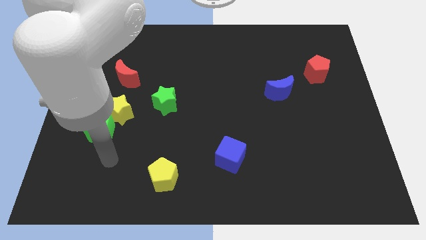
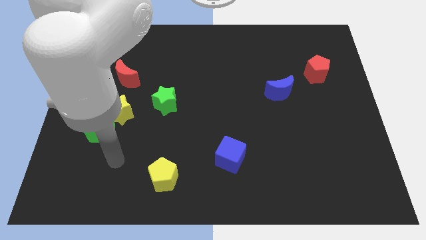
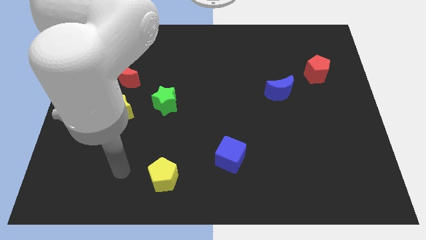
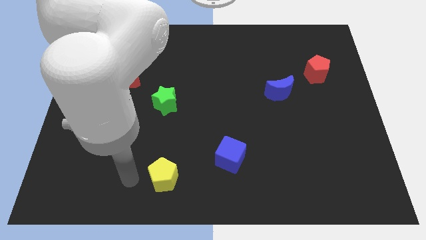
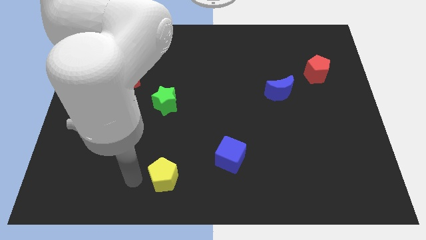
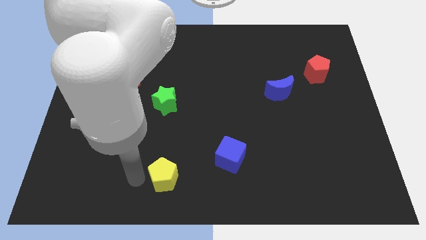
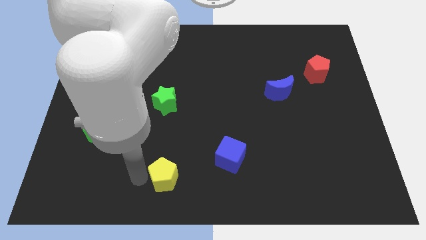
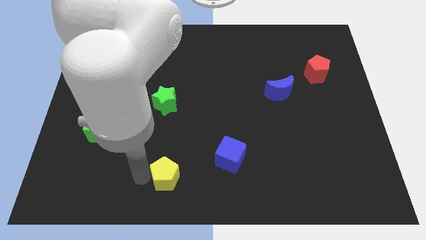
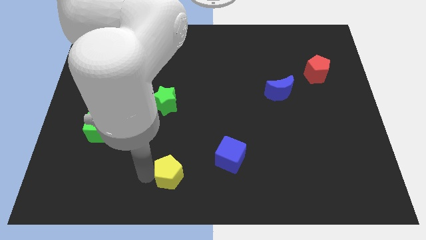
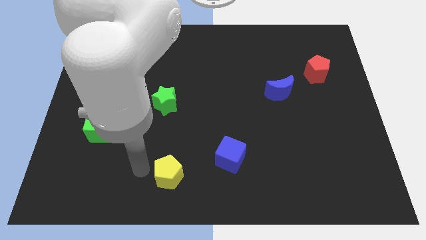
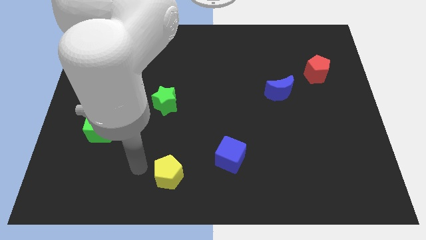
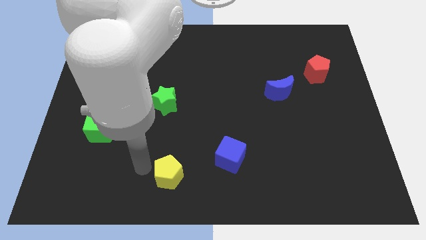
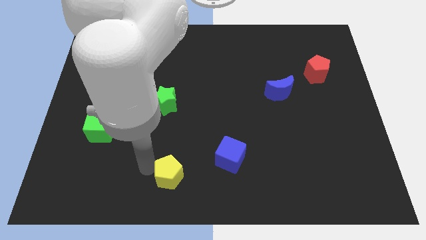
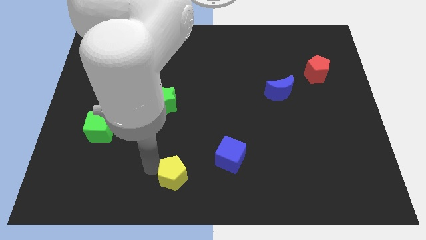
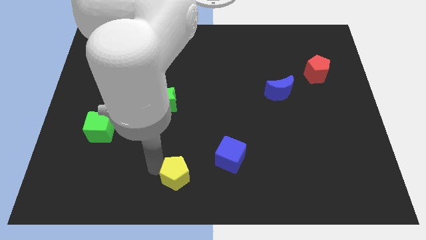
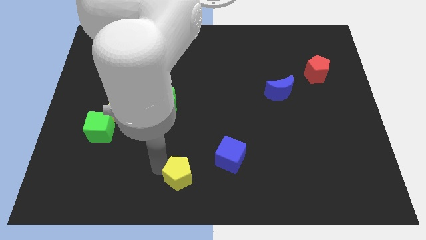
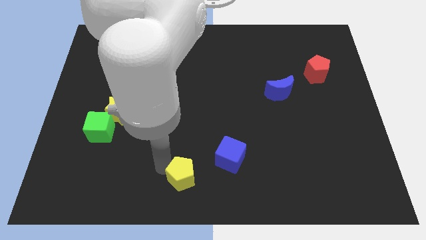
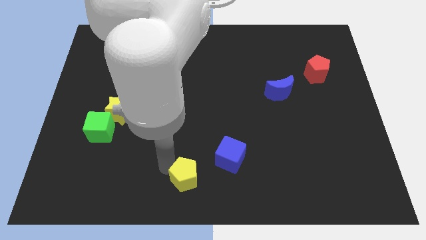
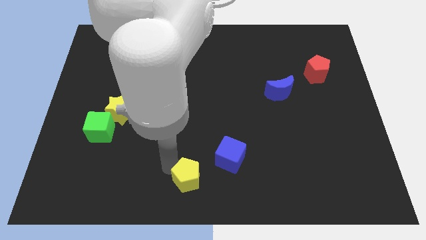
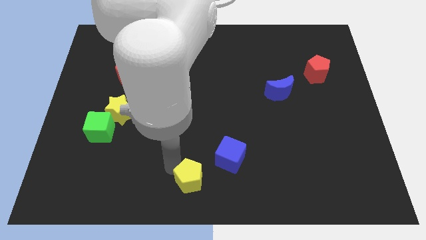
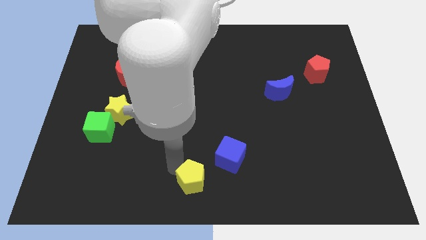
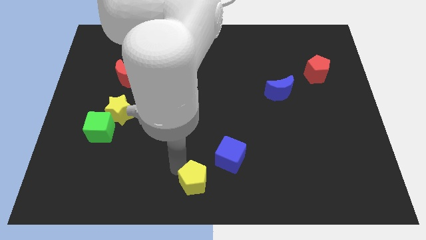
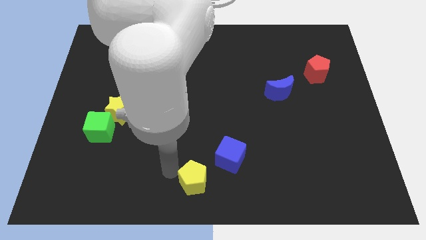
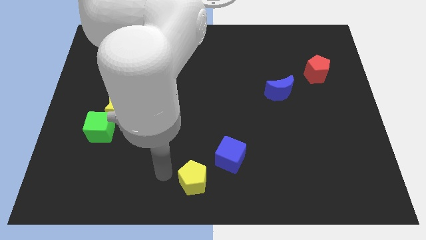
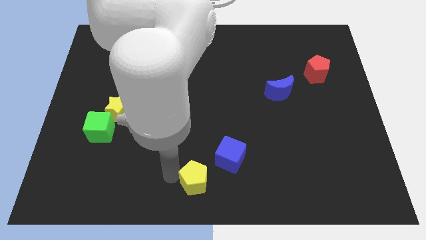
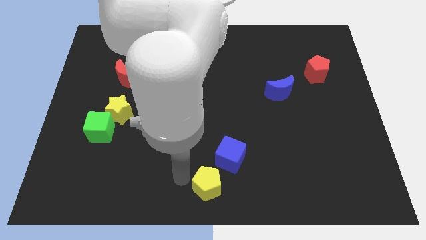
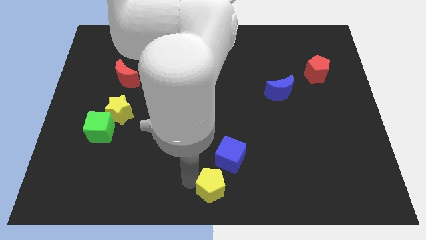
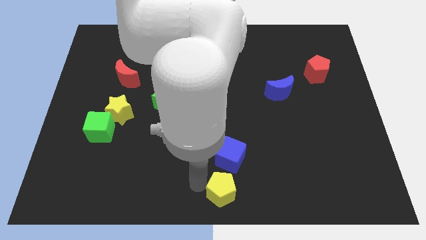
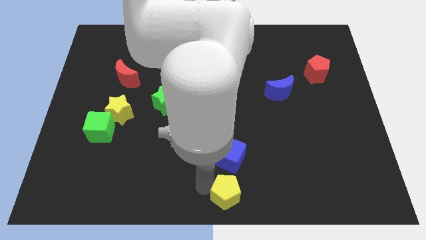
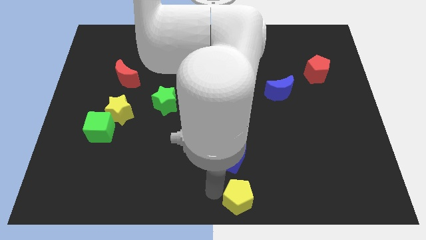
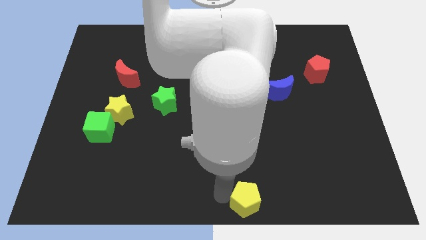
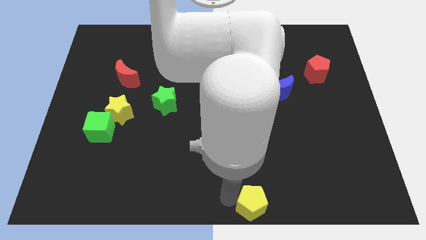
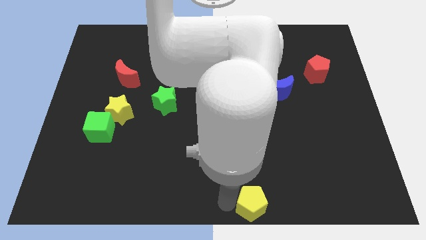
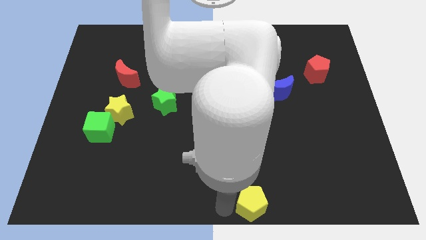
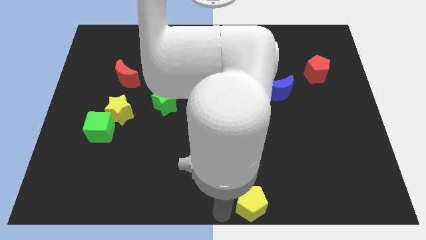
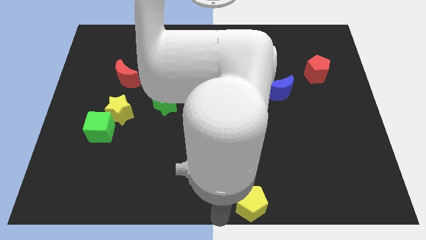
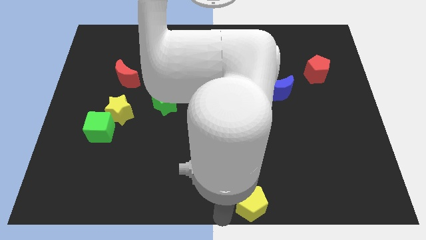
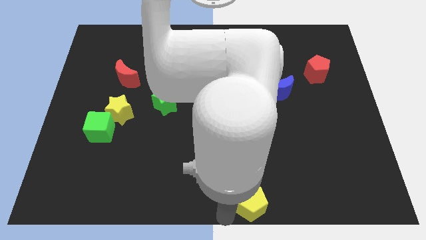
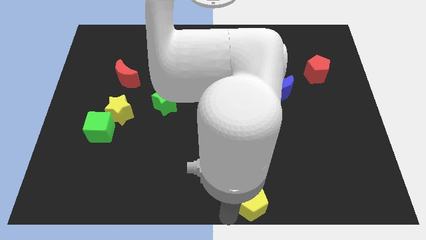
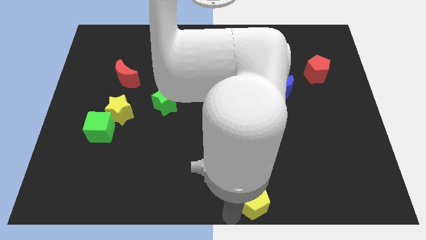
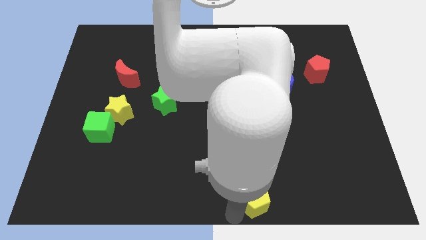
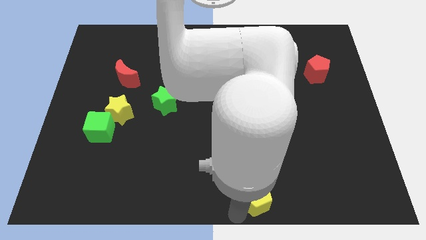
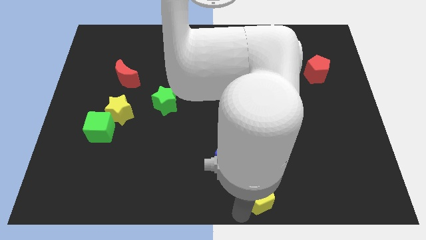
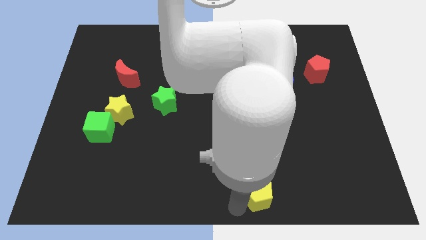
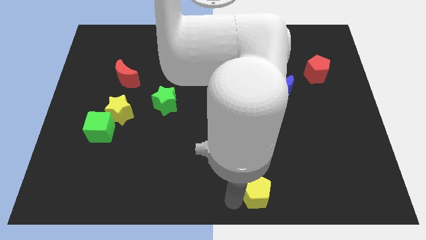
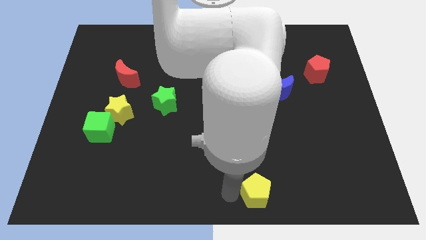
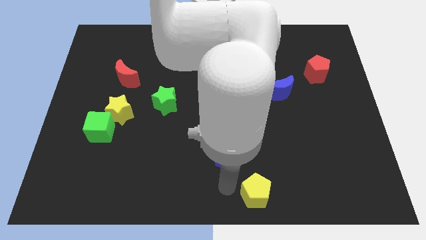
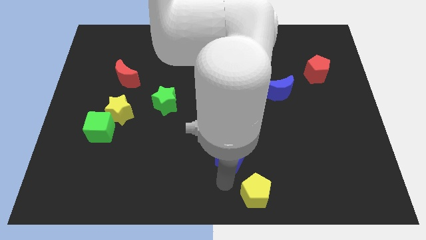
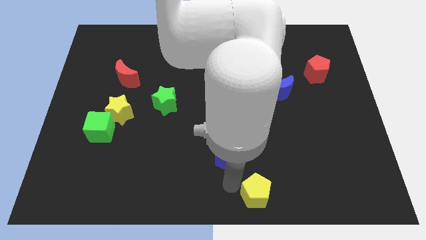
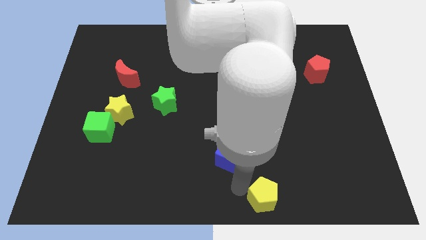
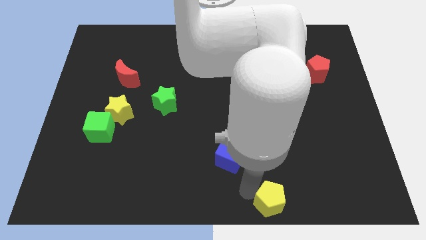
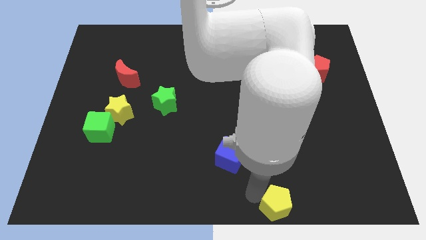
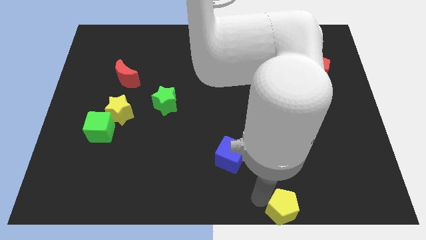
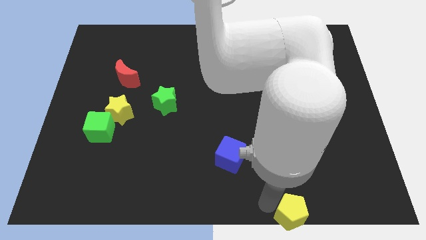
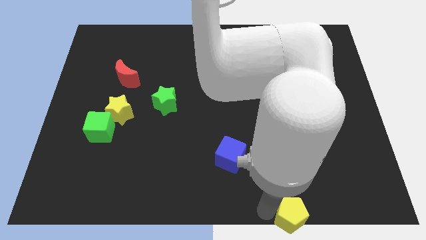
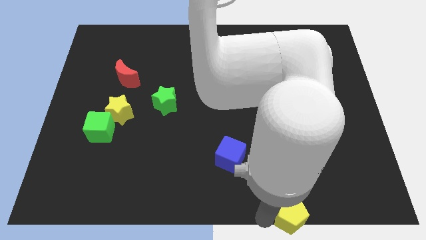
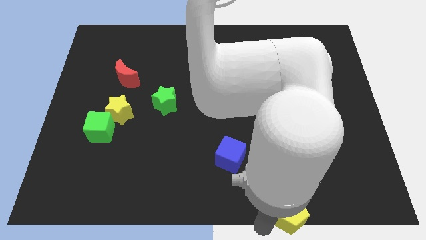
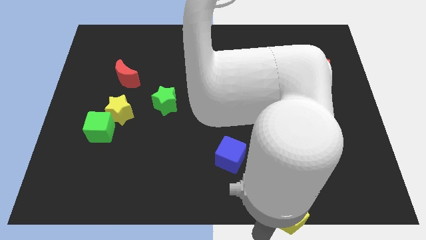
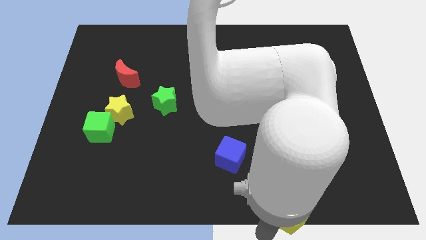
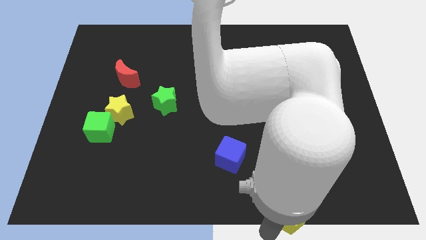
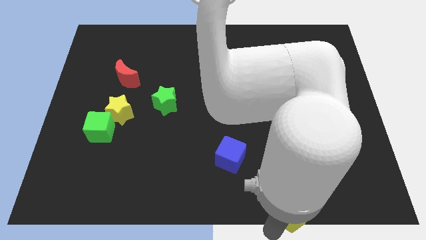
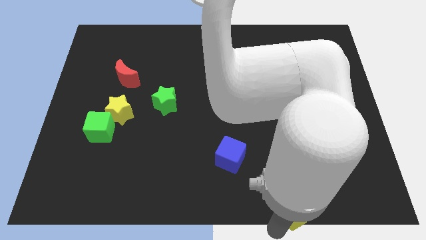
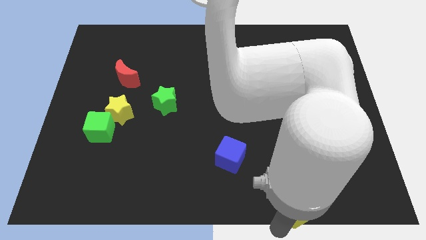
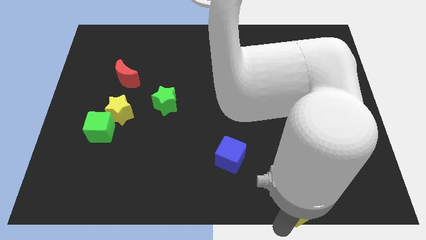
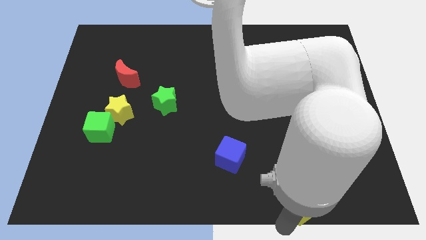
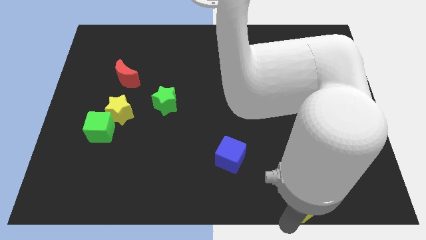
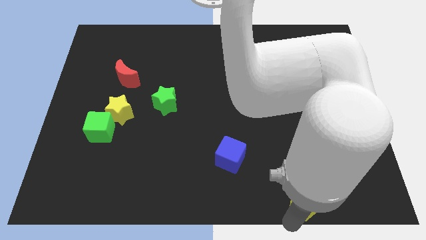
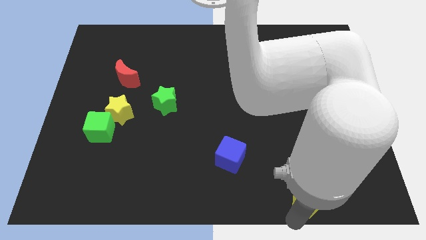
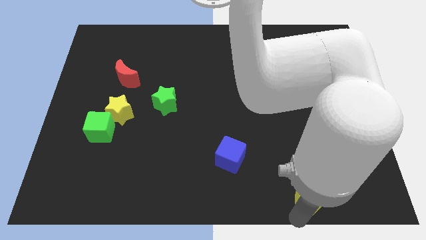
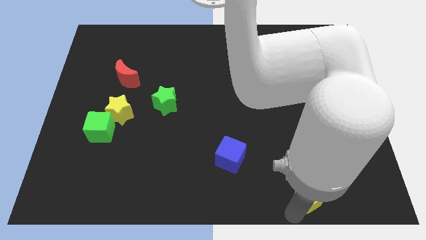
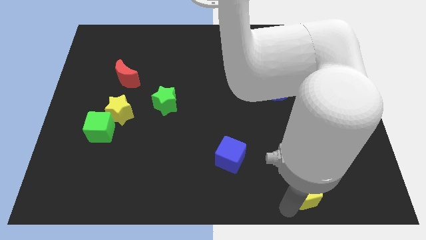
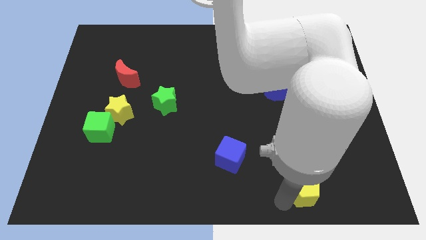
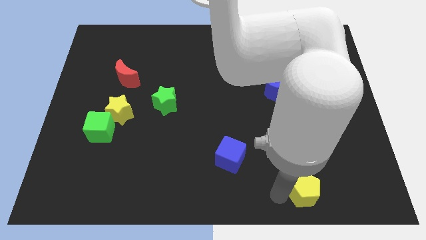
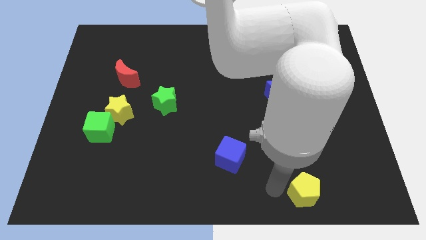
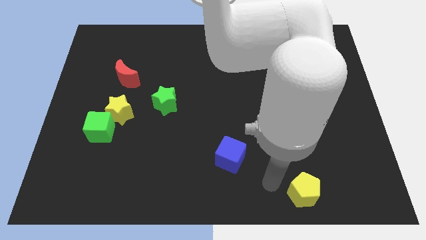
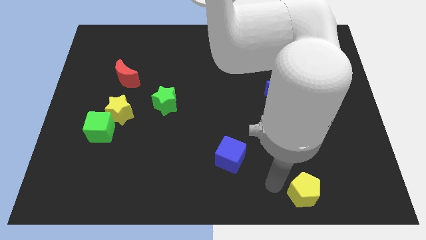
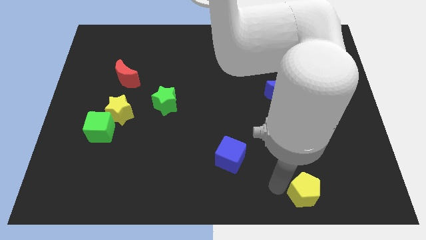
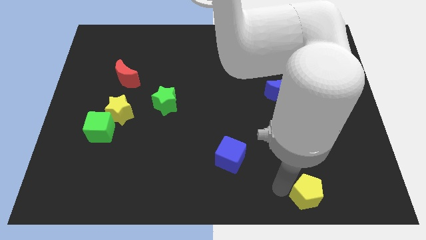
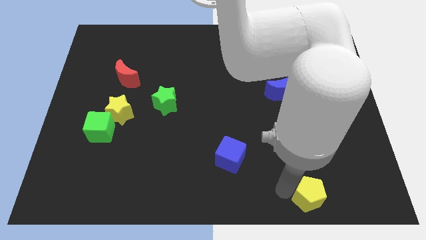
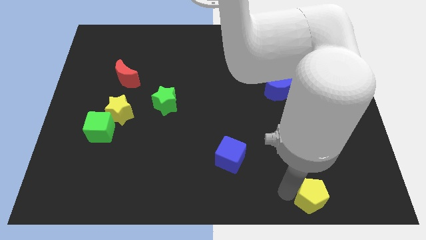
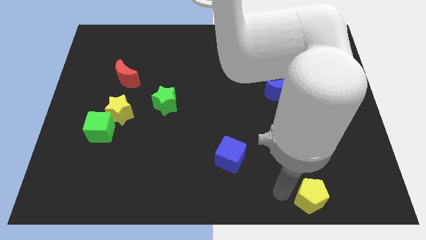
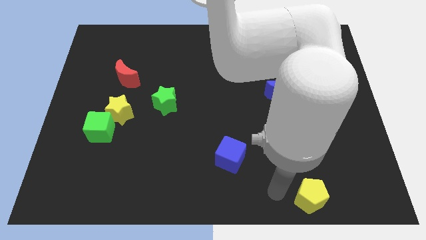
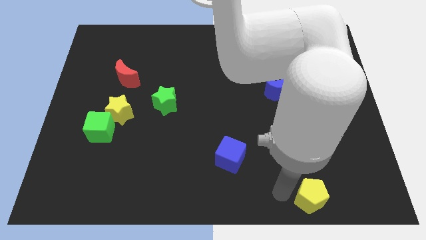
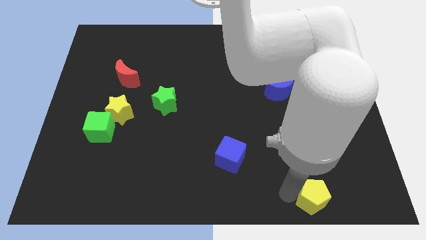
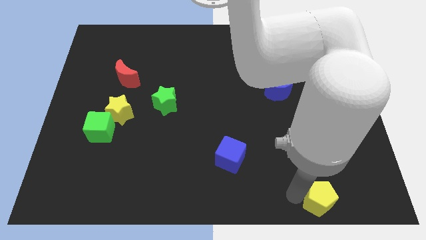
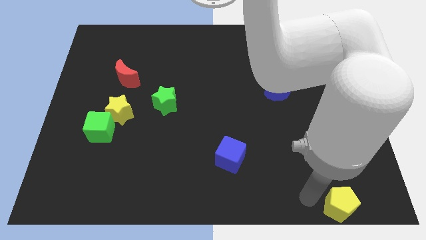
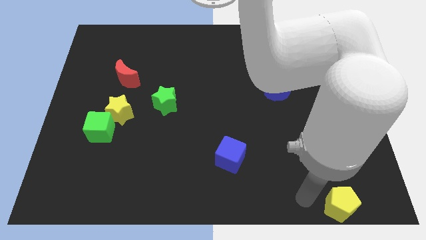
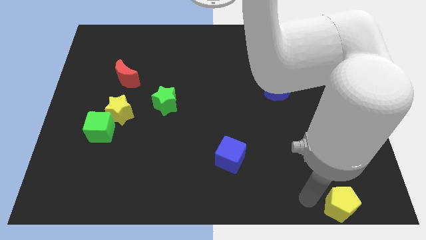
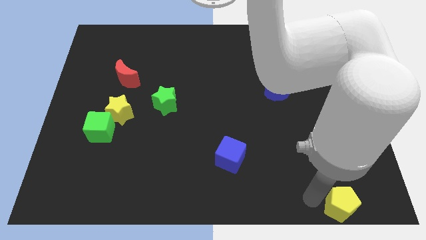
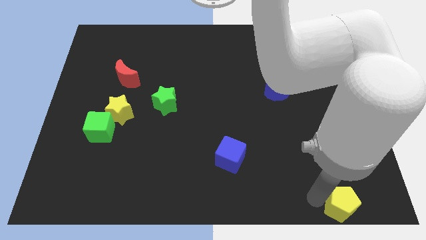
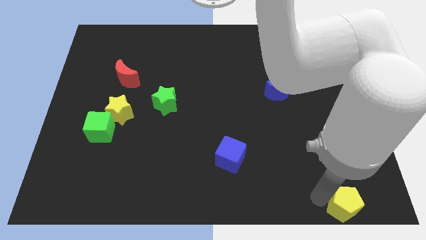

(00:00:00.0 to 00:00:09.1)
put the yellow pentagon to the bottom right
